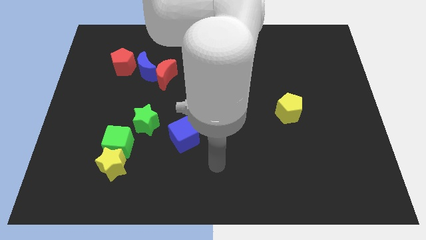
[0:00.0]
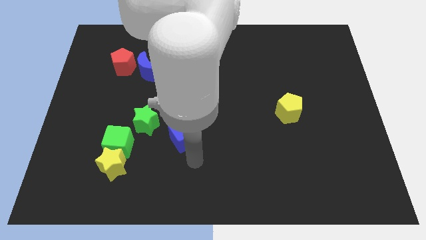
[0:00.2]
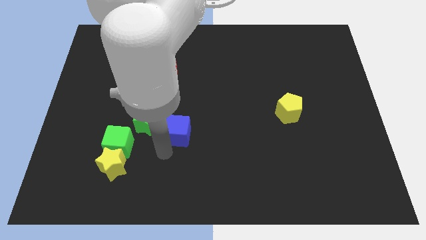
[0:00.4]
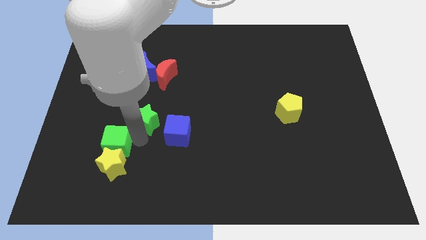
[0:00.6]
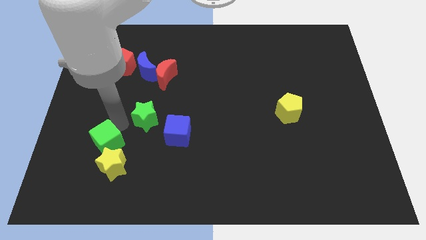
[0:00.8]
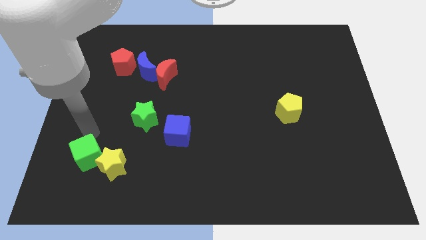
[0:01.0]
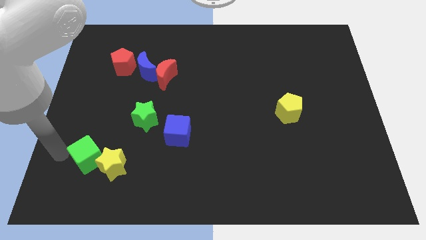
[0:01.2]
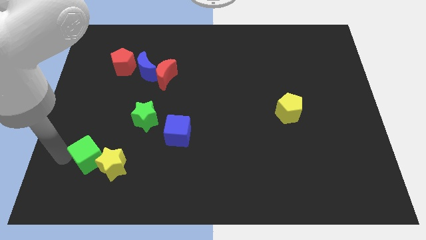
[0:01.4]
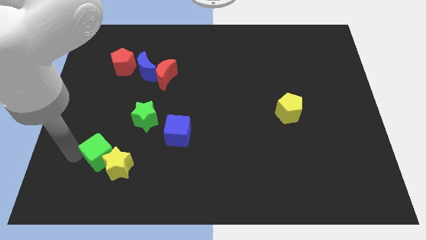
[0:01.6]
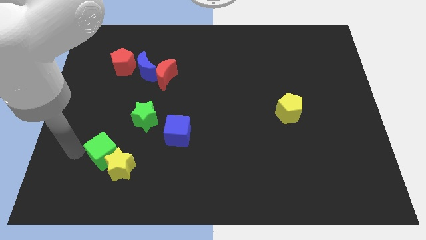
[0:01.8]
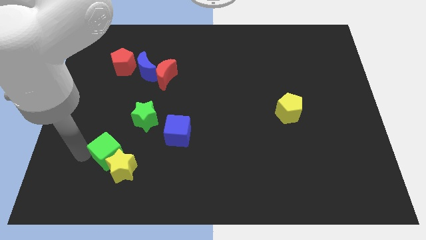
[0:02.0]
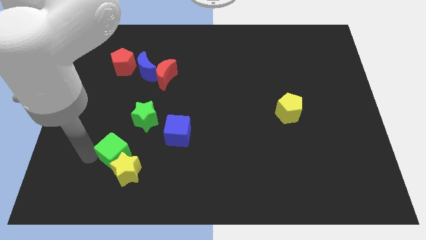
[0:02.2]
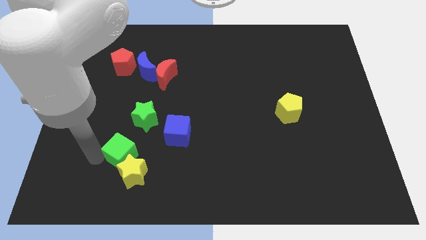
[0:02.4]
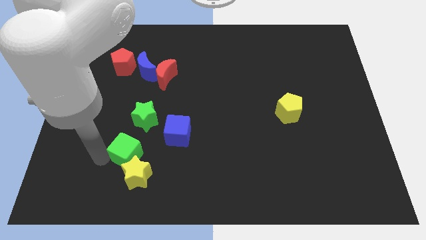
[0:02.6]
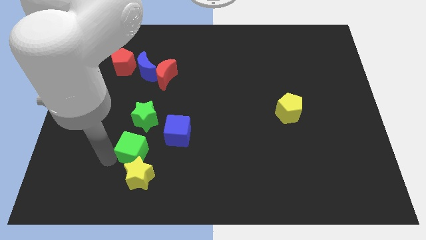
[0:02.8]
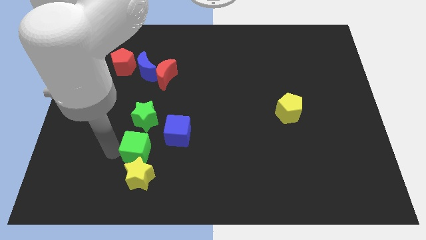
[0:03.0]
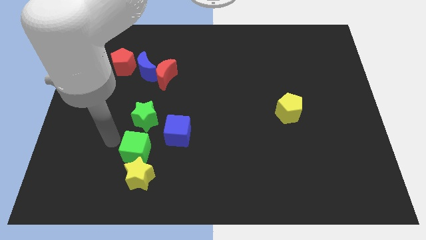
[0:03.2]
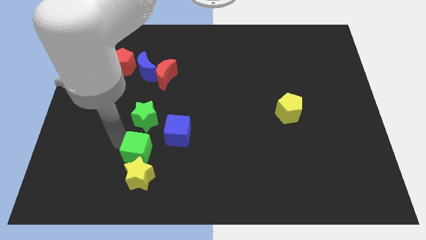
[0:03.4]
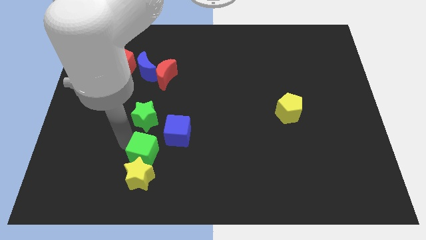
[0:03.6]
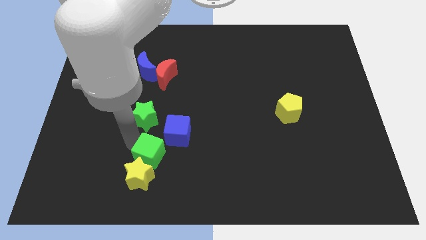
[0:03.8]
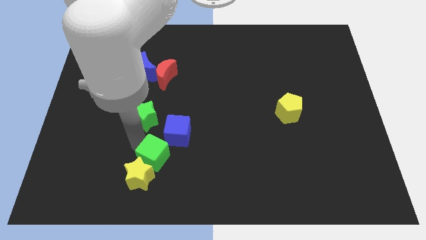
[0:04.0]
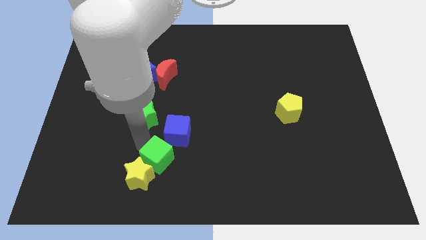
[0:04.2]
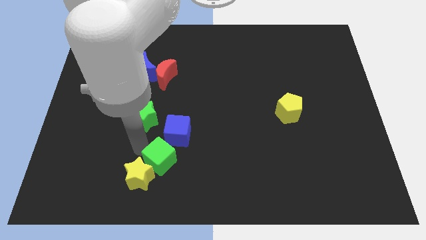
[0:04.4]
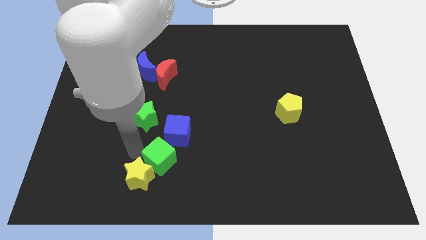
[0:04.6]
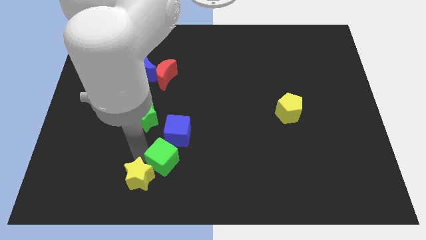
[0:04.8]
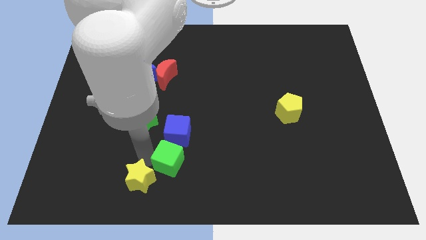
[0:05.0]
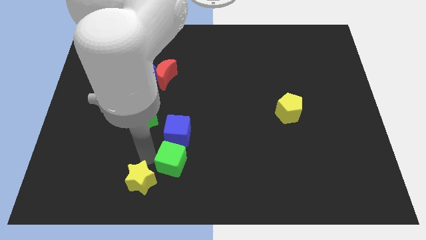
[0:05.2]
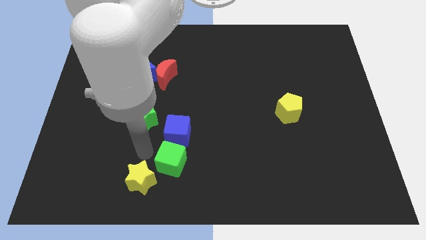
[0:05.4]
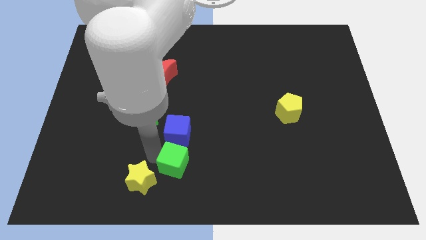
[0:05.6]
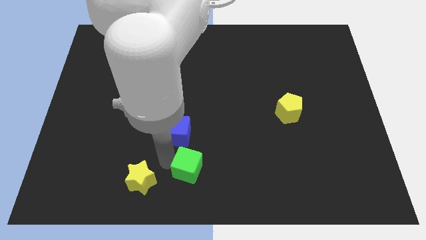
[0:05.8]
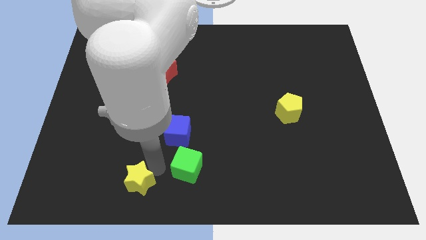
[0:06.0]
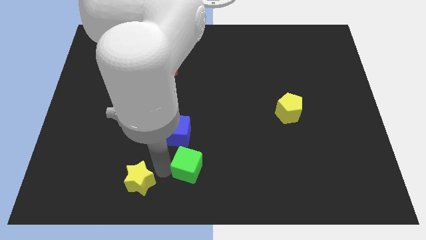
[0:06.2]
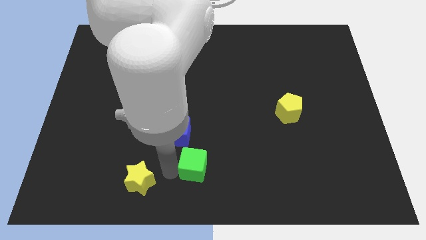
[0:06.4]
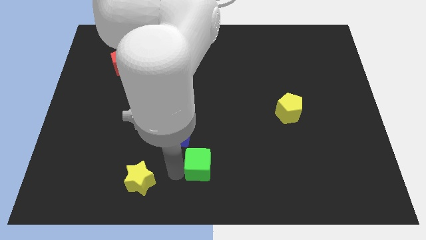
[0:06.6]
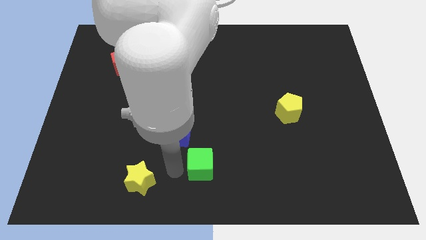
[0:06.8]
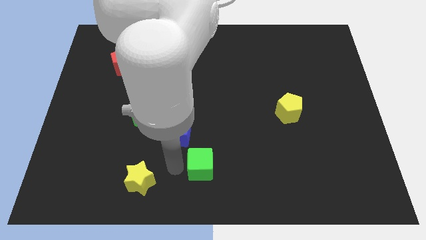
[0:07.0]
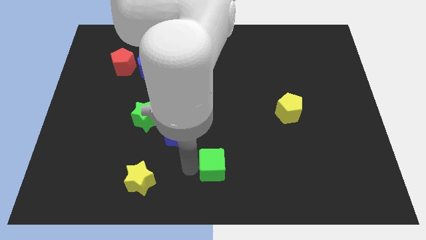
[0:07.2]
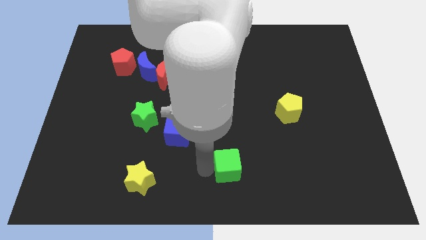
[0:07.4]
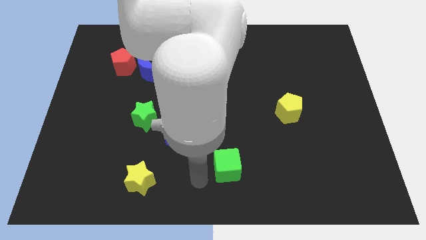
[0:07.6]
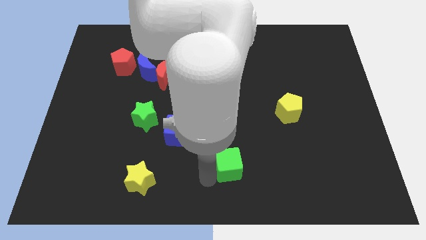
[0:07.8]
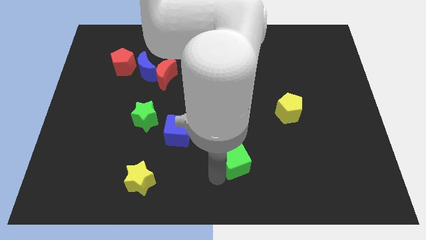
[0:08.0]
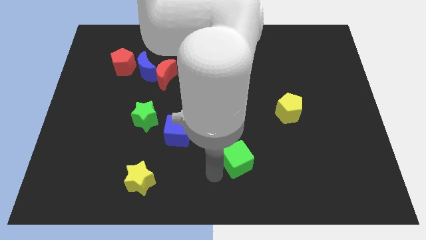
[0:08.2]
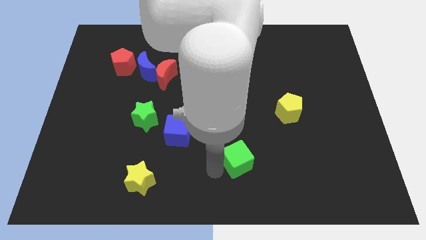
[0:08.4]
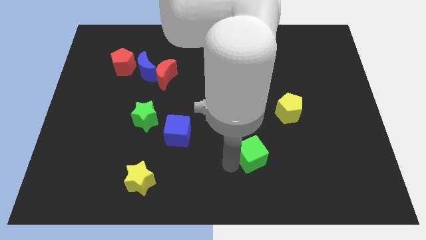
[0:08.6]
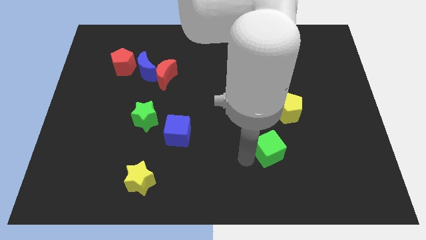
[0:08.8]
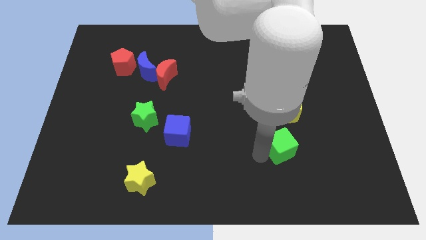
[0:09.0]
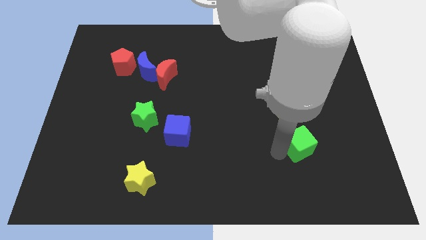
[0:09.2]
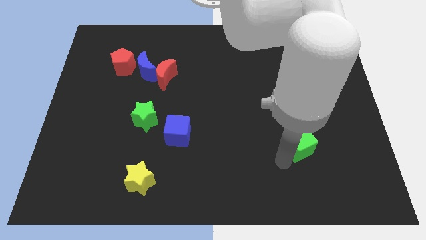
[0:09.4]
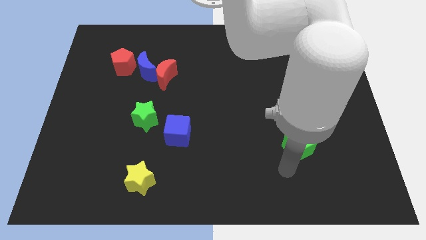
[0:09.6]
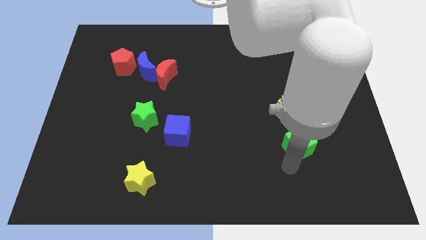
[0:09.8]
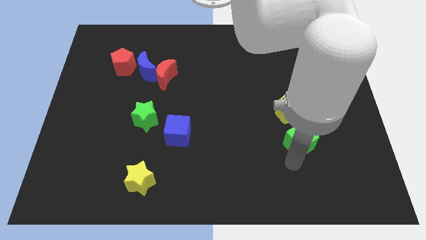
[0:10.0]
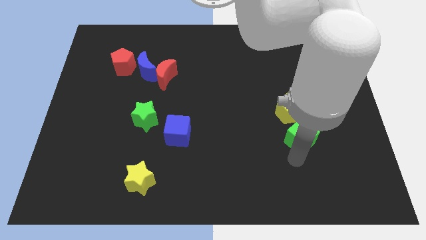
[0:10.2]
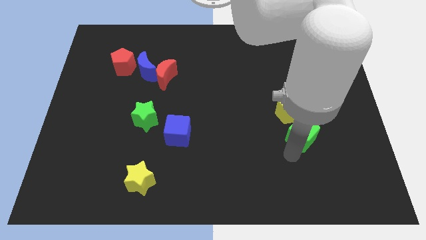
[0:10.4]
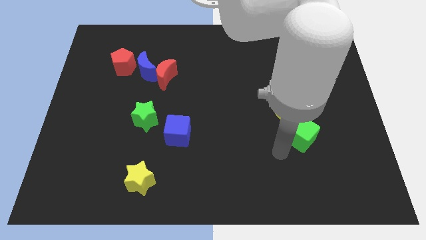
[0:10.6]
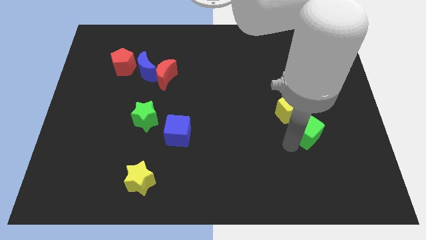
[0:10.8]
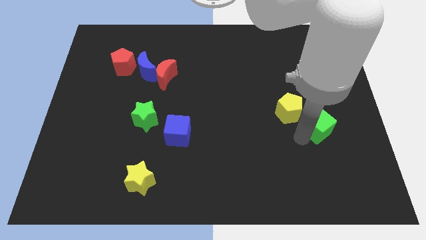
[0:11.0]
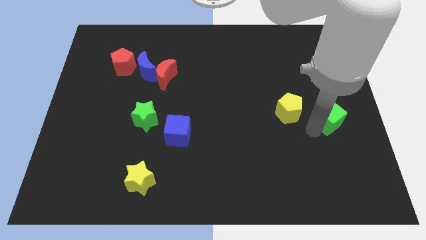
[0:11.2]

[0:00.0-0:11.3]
put the green cube to the right side

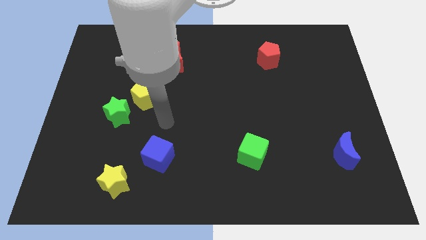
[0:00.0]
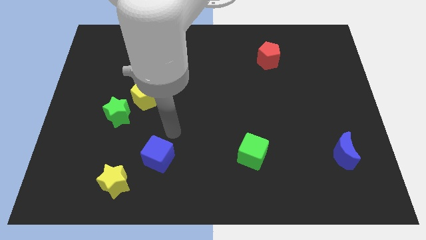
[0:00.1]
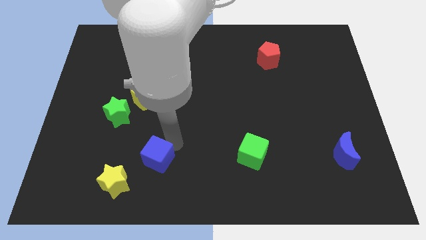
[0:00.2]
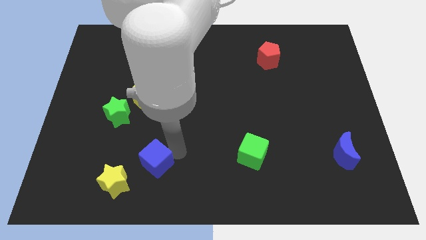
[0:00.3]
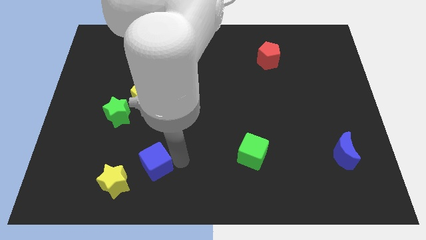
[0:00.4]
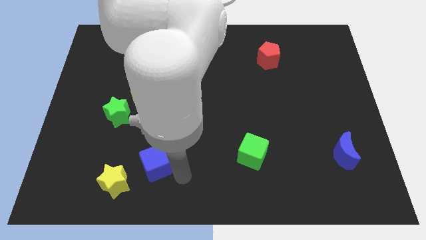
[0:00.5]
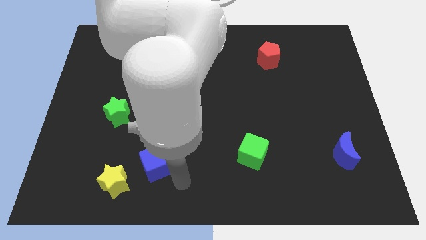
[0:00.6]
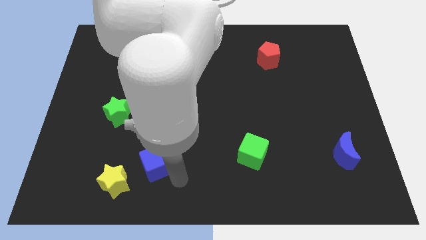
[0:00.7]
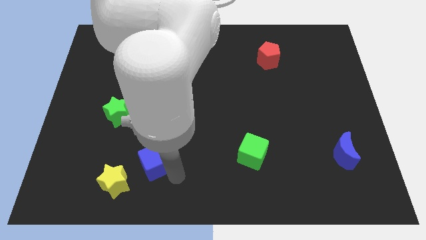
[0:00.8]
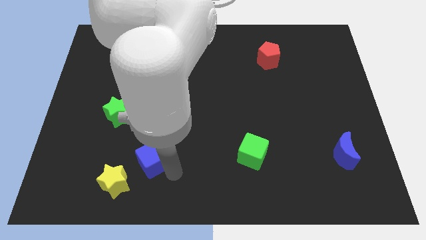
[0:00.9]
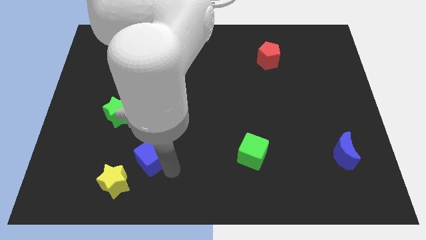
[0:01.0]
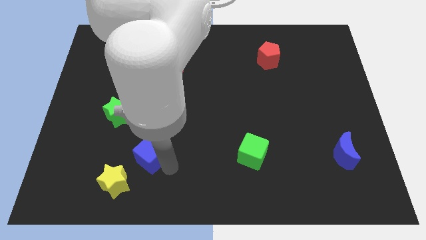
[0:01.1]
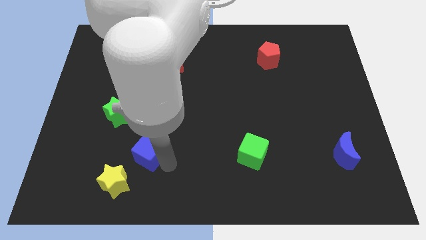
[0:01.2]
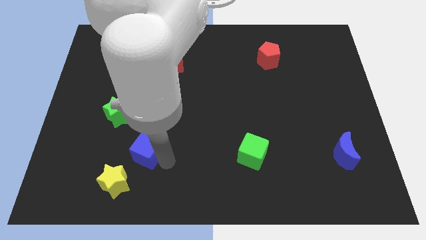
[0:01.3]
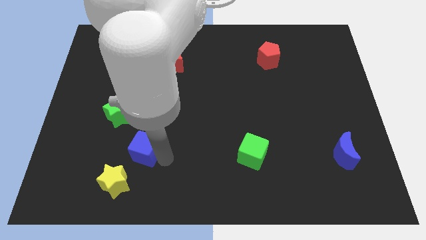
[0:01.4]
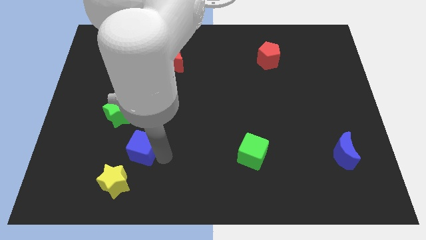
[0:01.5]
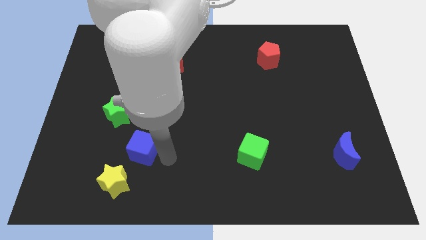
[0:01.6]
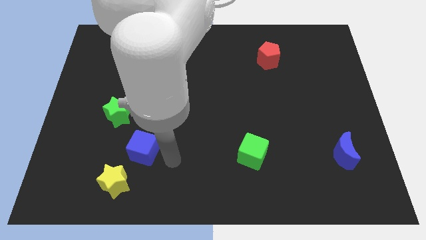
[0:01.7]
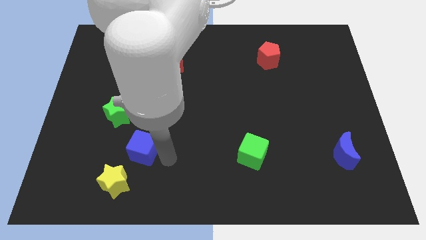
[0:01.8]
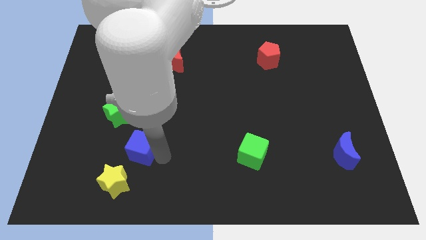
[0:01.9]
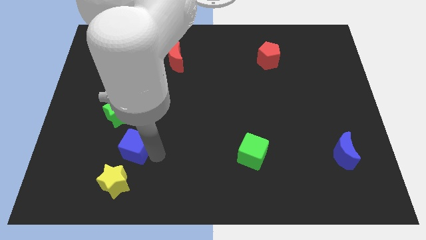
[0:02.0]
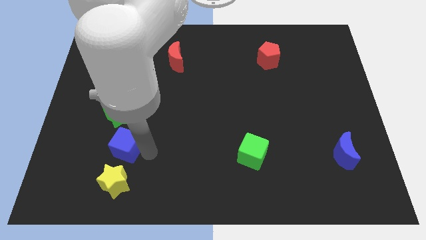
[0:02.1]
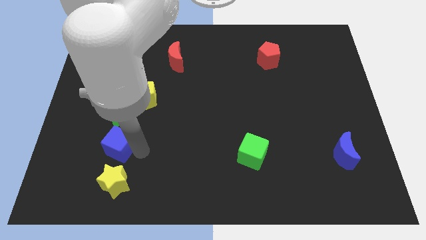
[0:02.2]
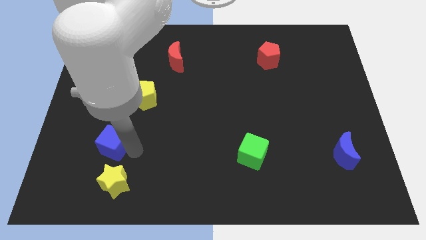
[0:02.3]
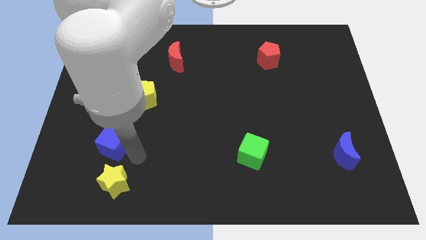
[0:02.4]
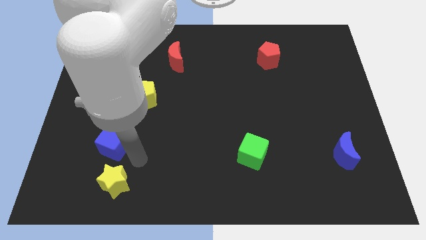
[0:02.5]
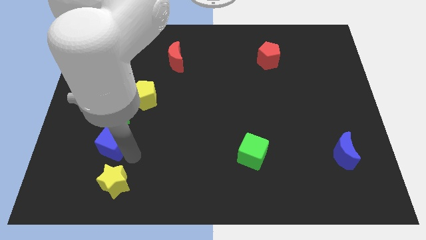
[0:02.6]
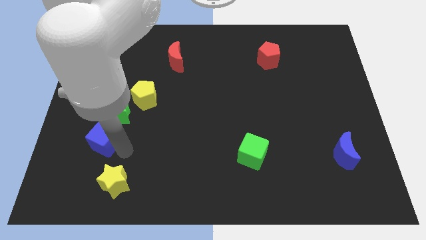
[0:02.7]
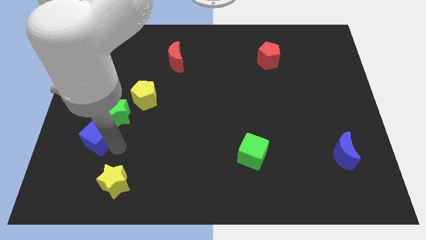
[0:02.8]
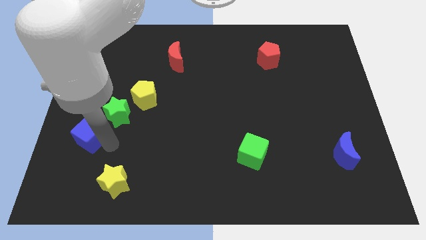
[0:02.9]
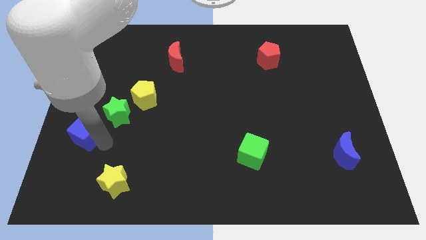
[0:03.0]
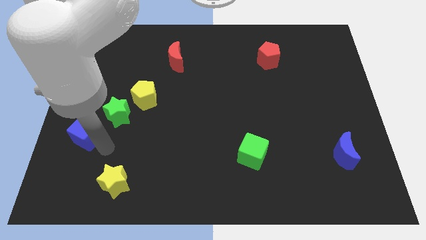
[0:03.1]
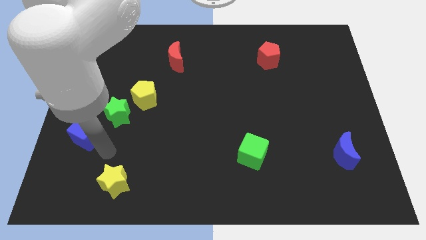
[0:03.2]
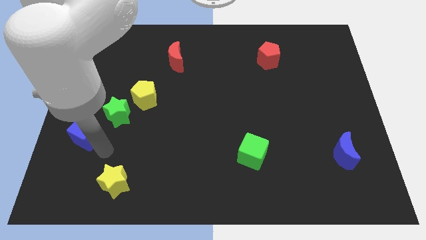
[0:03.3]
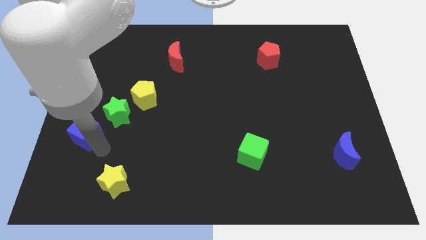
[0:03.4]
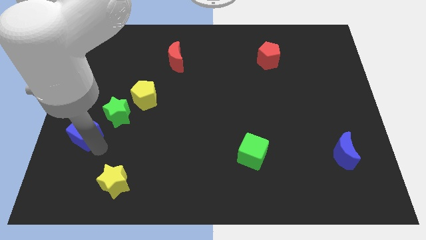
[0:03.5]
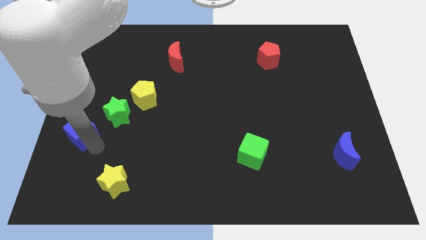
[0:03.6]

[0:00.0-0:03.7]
move the blue cube to the left side of the board
